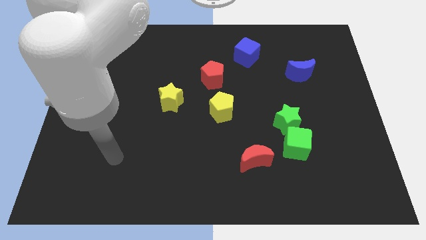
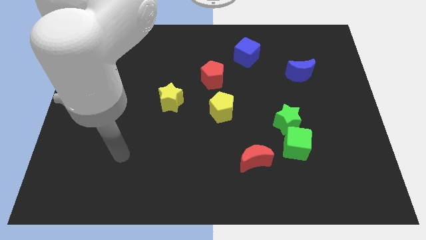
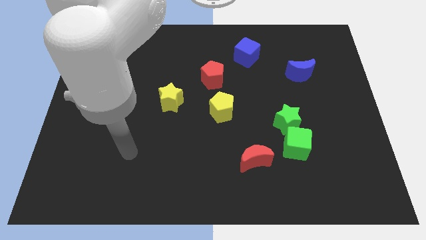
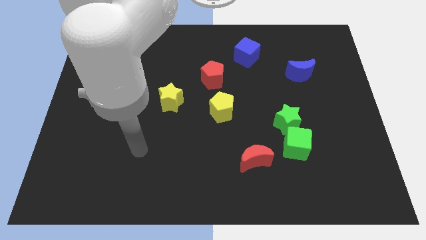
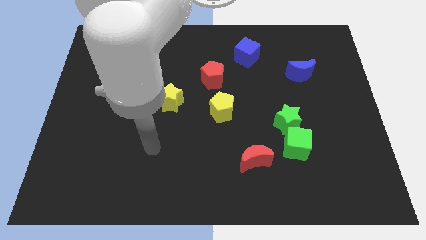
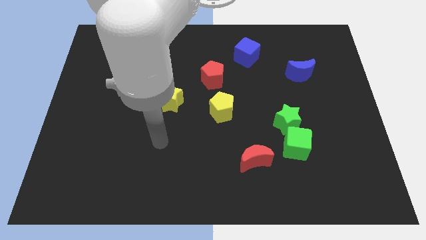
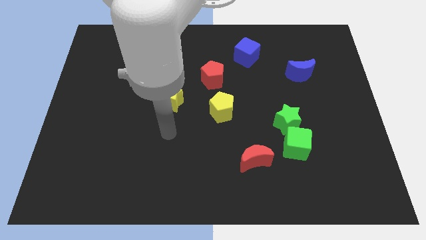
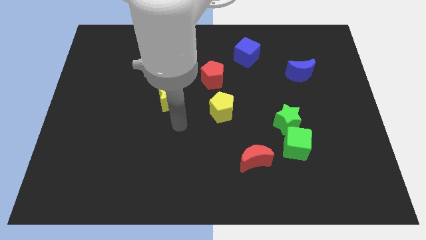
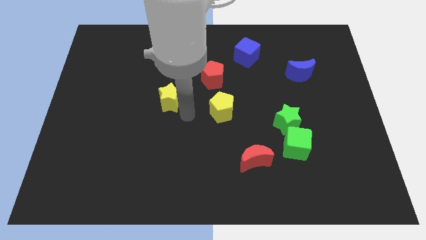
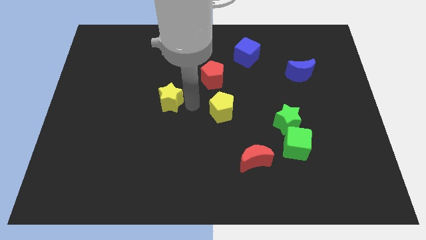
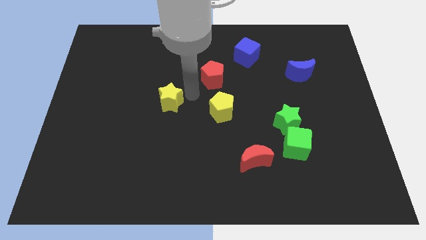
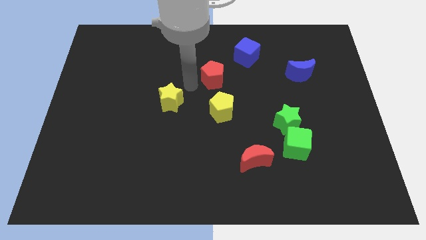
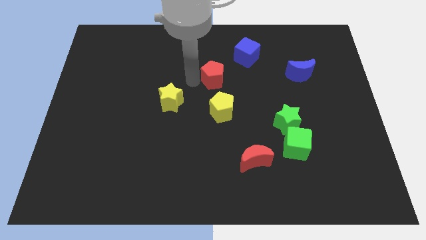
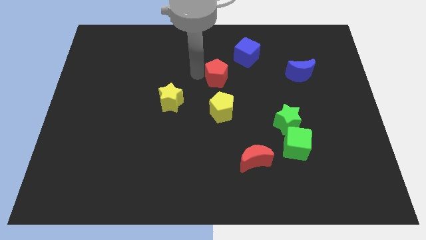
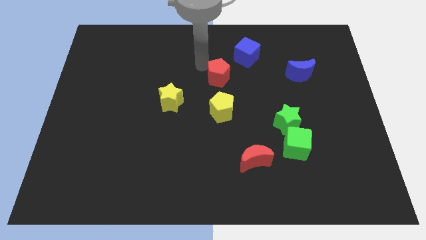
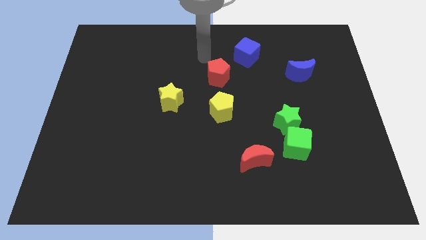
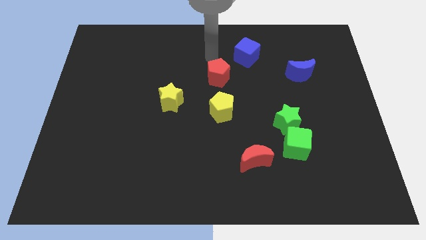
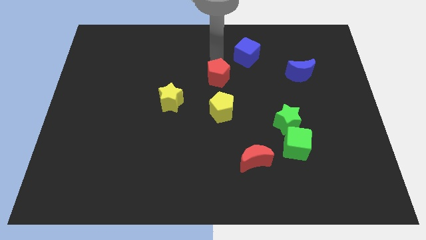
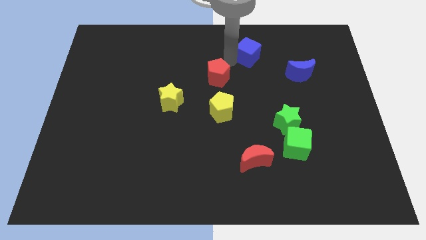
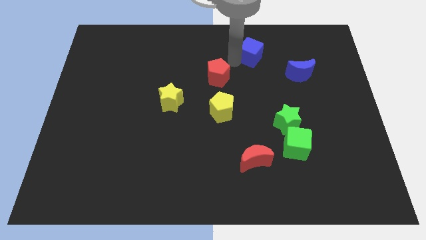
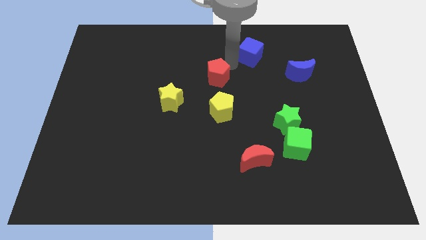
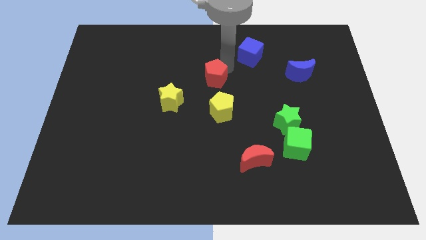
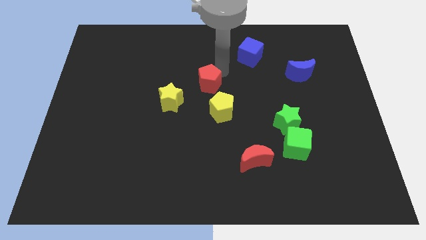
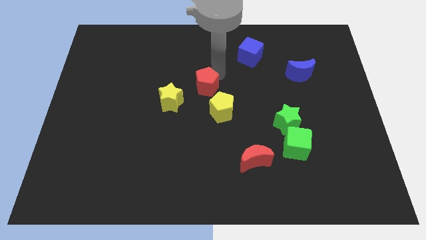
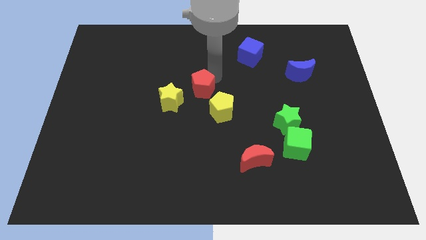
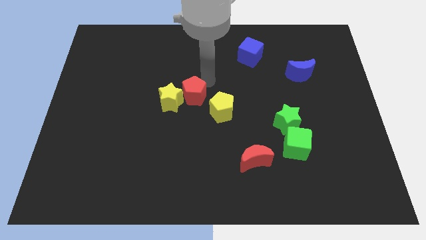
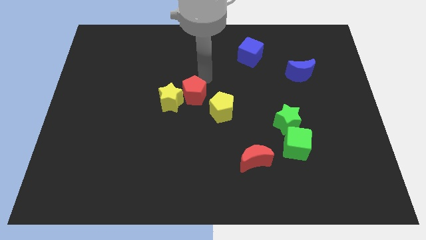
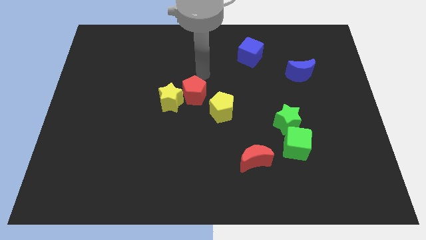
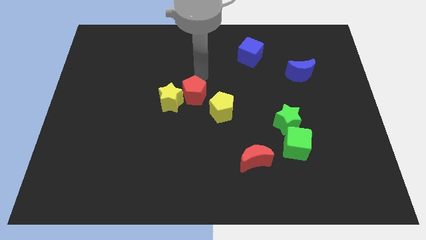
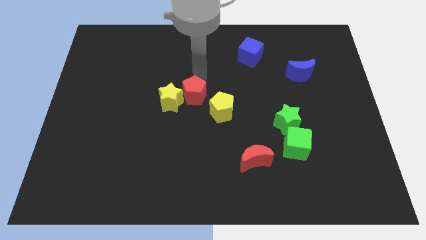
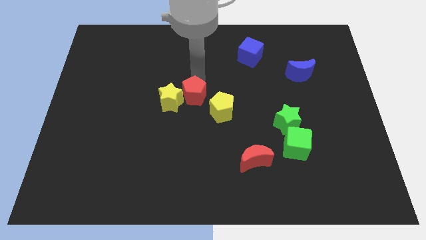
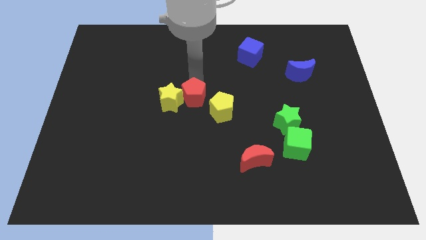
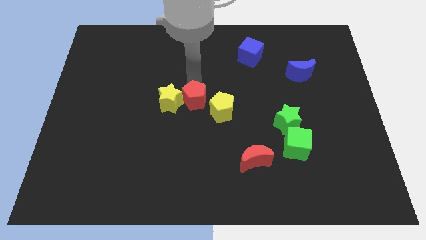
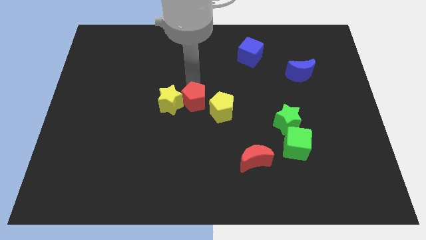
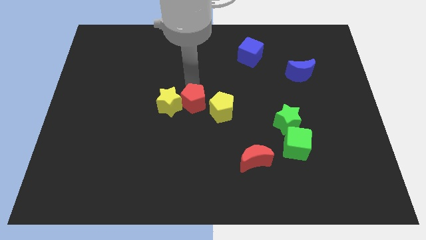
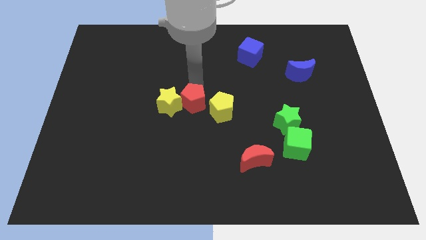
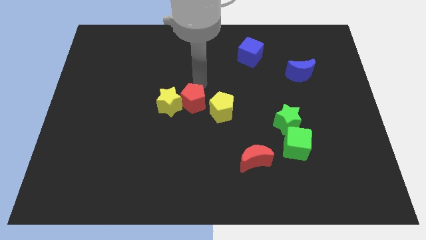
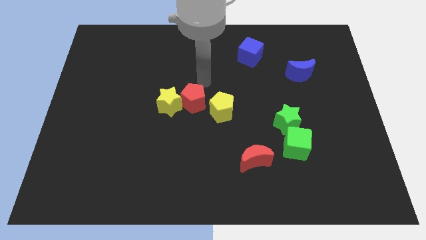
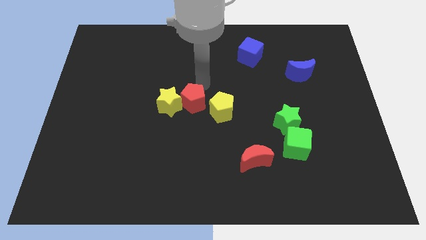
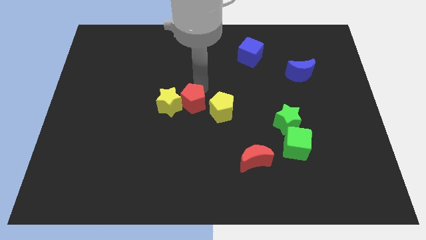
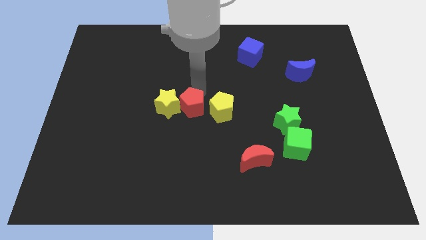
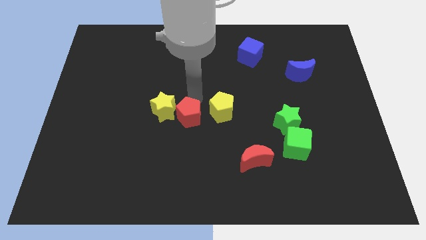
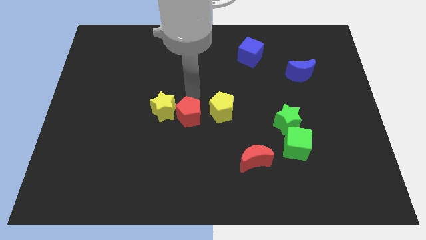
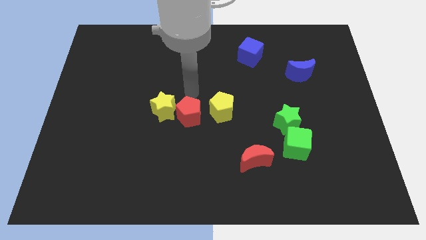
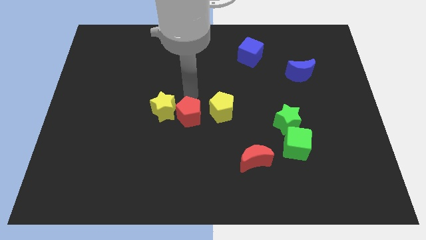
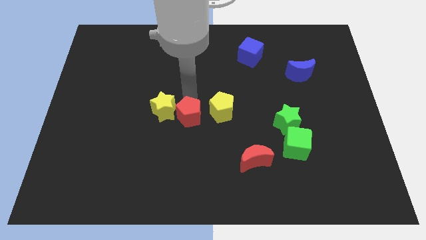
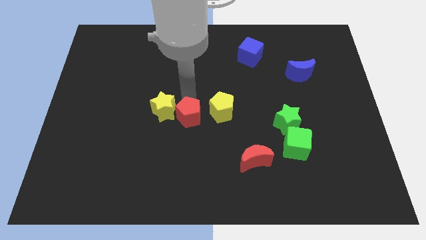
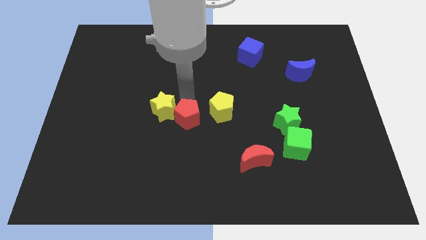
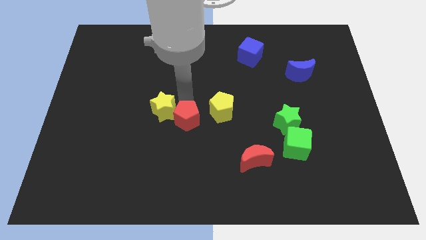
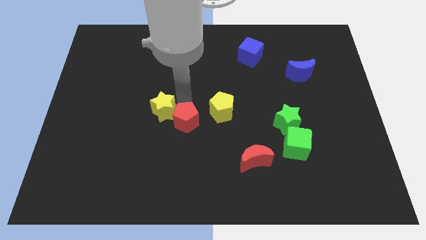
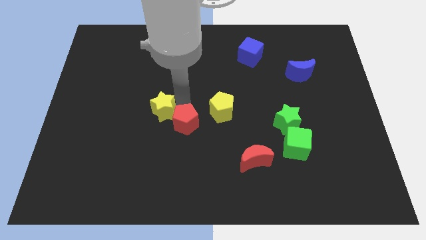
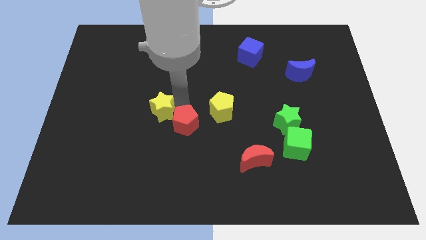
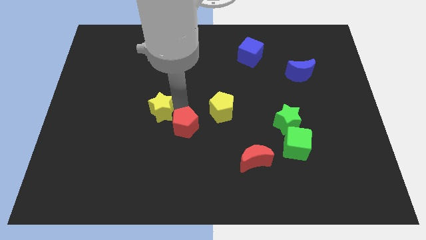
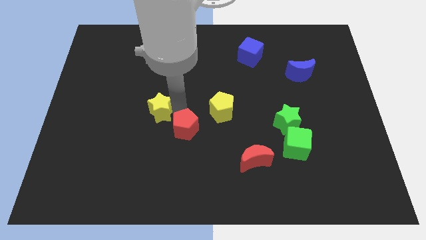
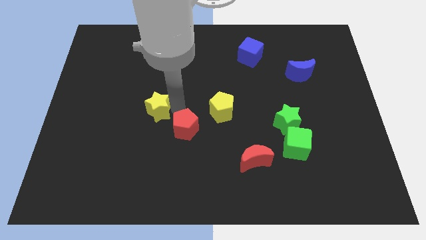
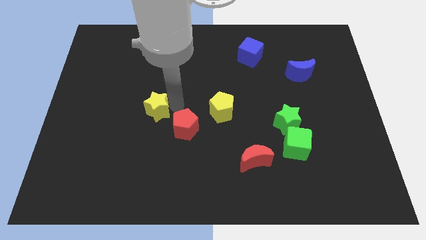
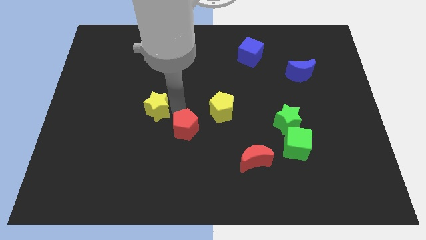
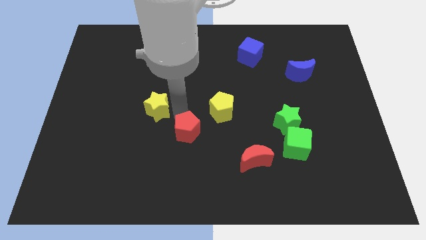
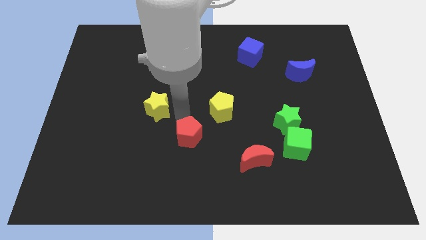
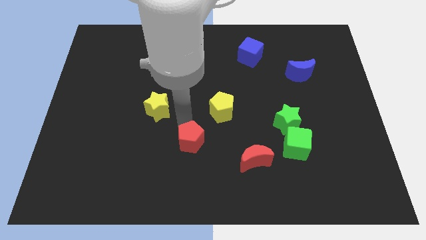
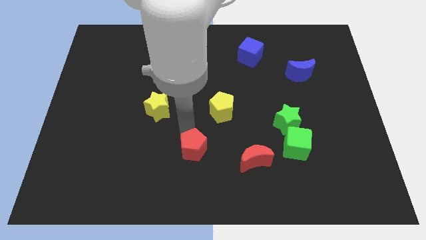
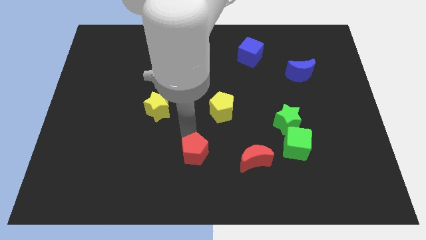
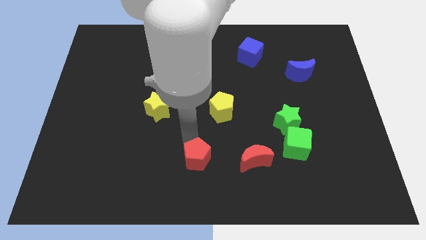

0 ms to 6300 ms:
push the red pentagon to the bottom
